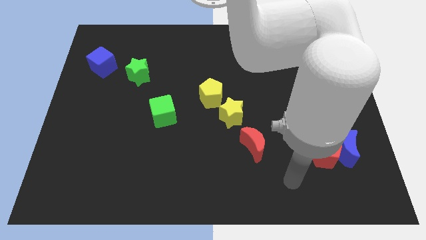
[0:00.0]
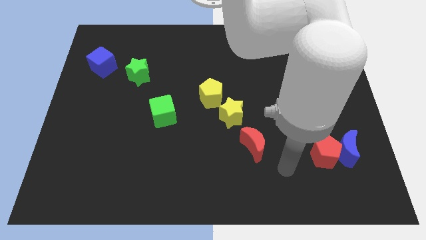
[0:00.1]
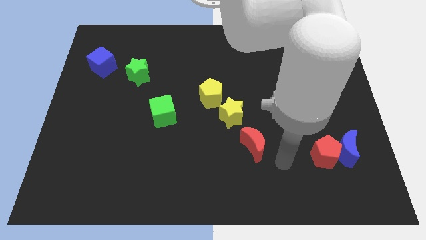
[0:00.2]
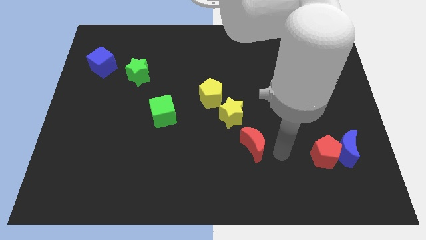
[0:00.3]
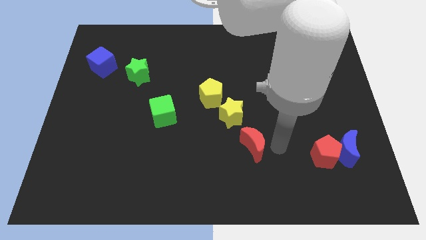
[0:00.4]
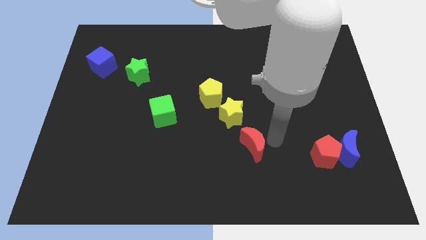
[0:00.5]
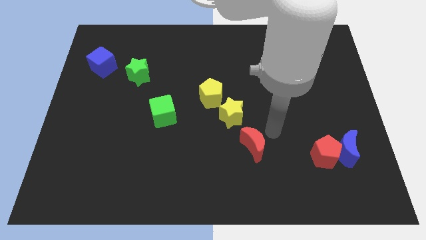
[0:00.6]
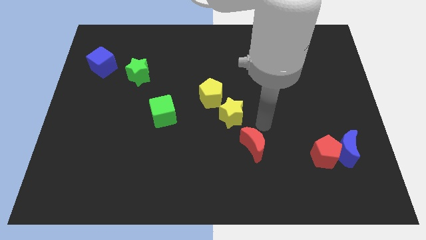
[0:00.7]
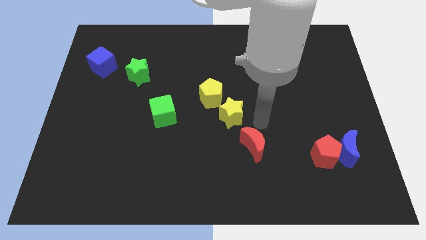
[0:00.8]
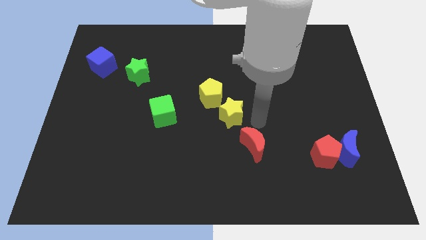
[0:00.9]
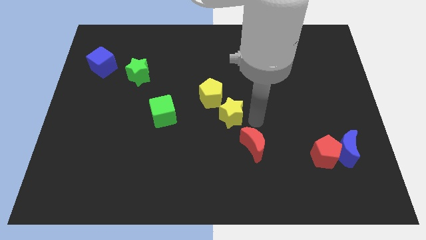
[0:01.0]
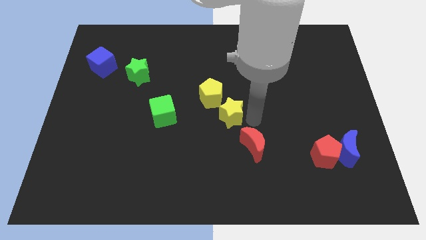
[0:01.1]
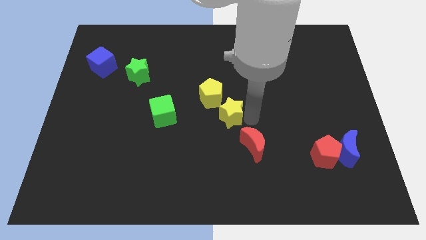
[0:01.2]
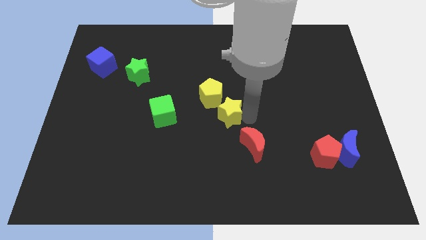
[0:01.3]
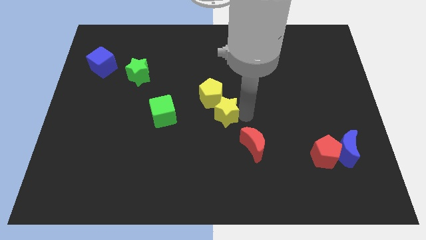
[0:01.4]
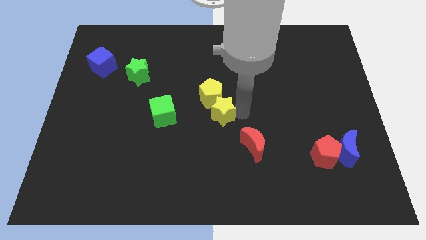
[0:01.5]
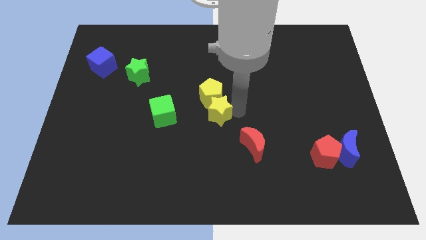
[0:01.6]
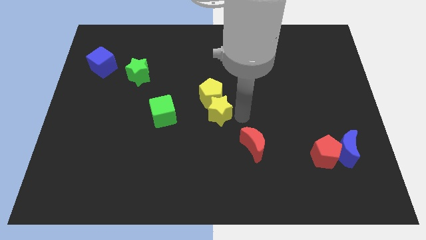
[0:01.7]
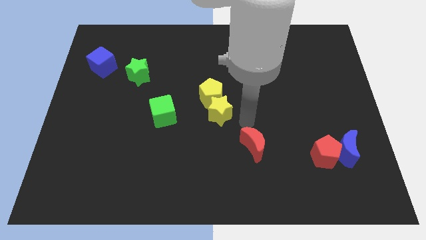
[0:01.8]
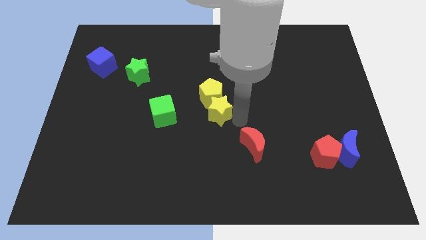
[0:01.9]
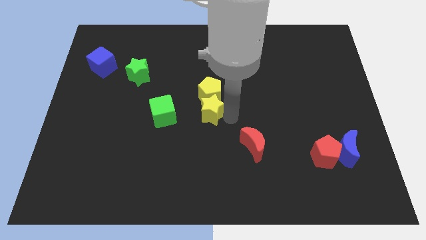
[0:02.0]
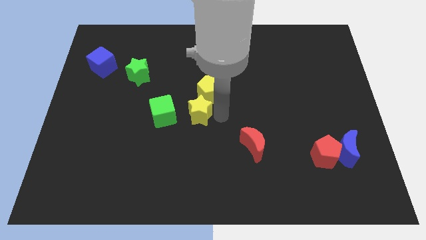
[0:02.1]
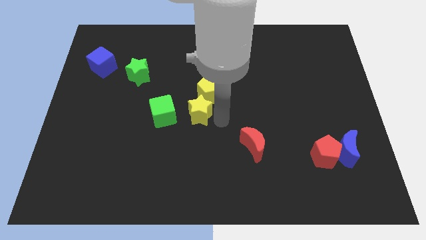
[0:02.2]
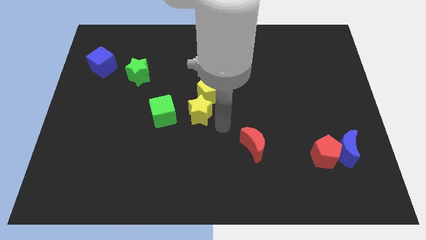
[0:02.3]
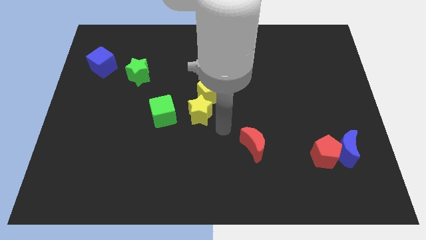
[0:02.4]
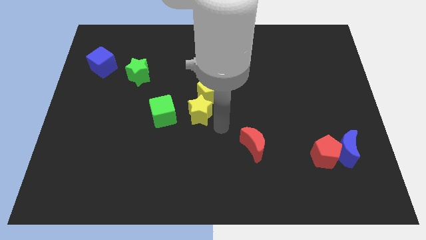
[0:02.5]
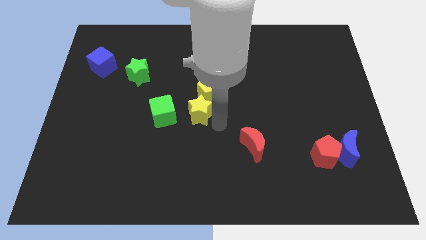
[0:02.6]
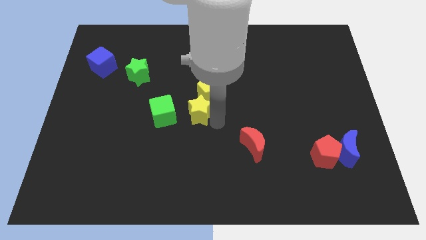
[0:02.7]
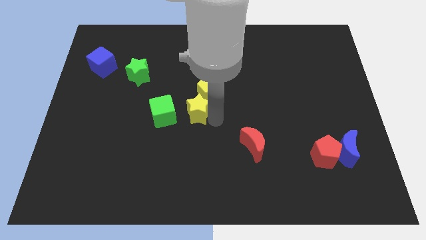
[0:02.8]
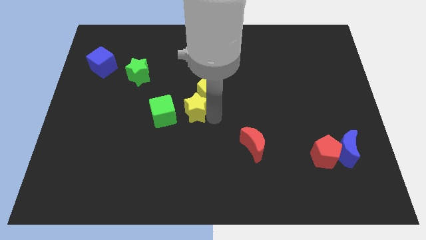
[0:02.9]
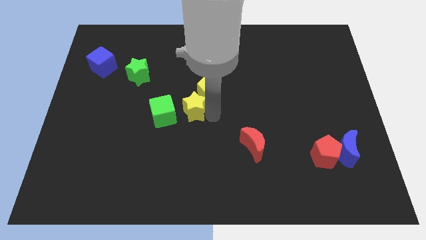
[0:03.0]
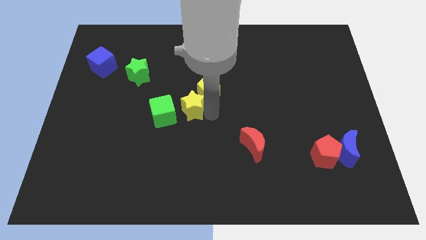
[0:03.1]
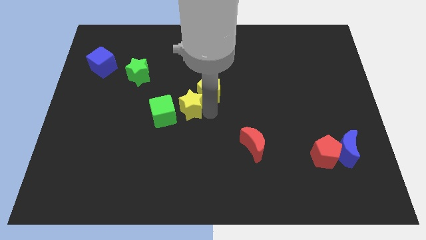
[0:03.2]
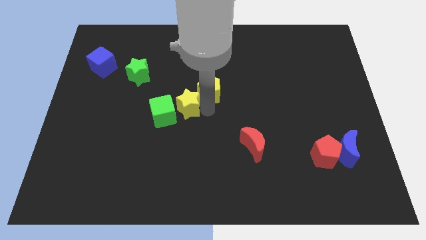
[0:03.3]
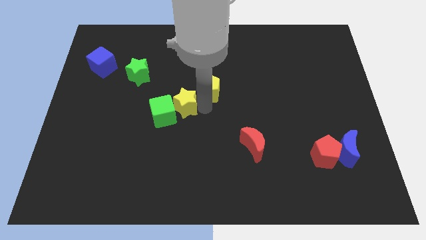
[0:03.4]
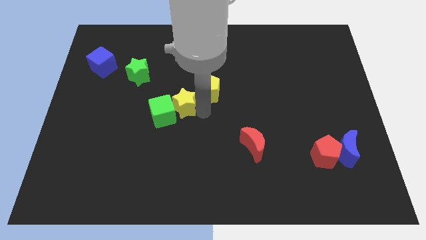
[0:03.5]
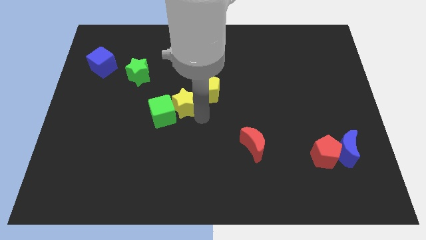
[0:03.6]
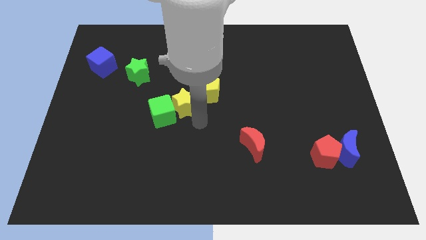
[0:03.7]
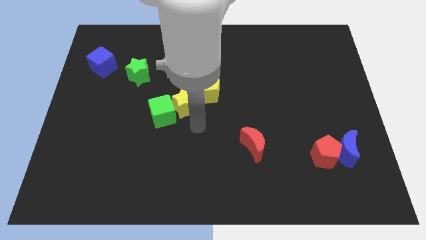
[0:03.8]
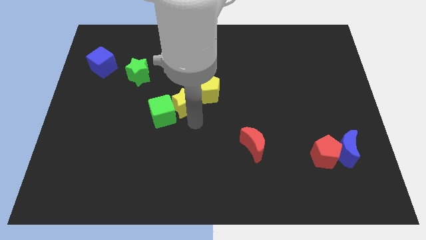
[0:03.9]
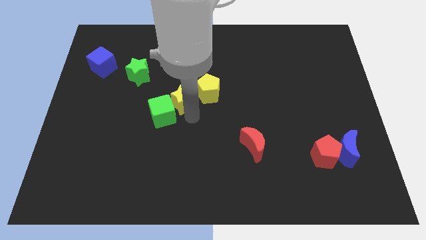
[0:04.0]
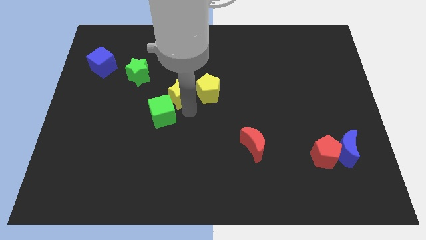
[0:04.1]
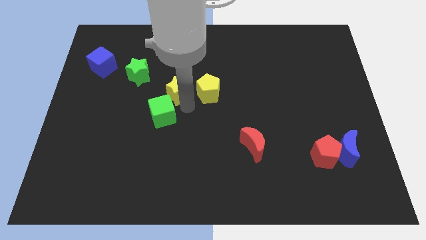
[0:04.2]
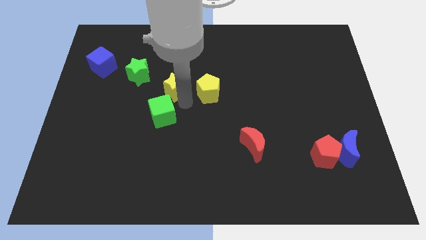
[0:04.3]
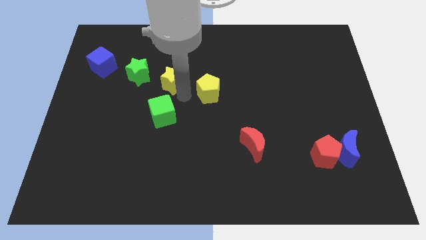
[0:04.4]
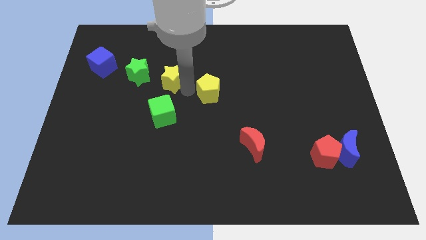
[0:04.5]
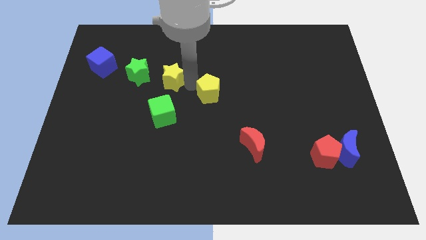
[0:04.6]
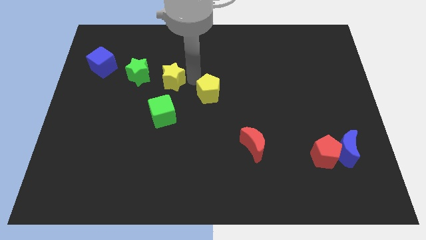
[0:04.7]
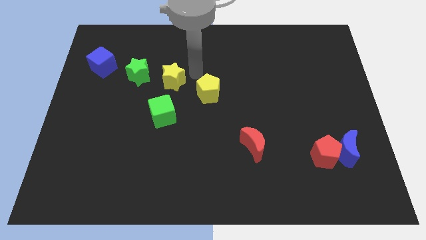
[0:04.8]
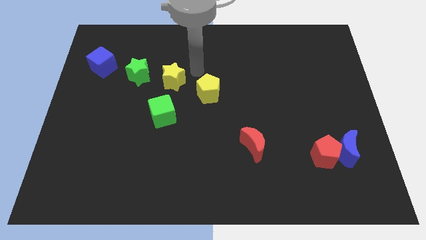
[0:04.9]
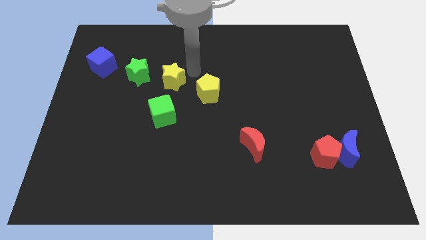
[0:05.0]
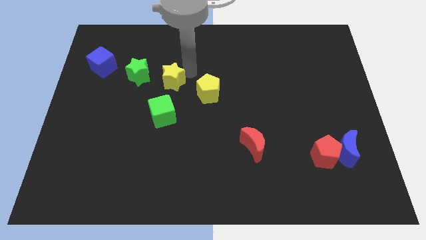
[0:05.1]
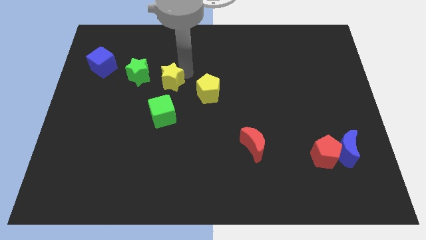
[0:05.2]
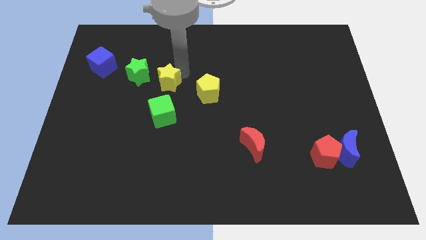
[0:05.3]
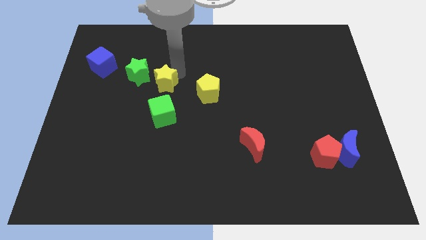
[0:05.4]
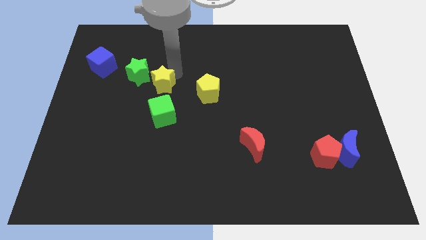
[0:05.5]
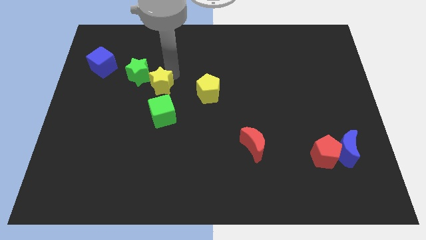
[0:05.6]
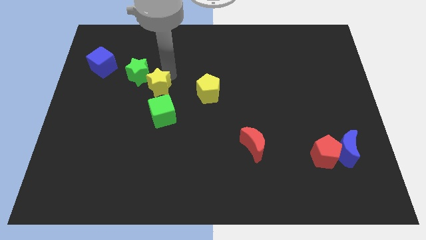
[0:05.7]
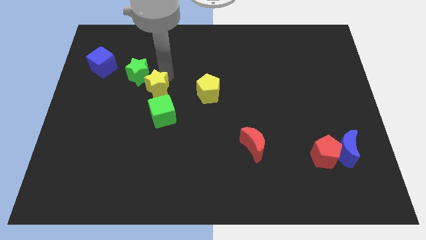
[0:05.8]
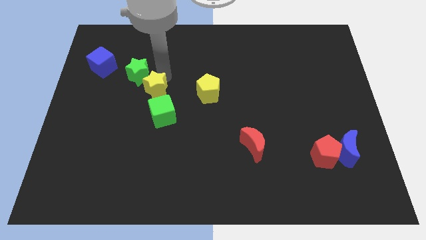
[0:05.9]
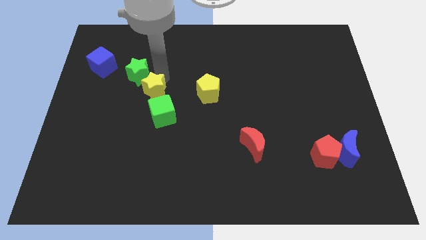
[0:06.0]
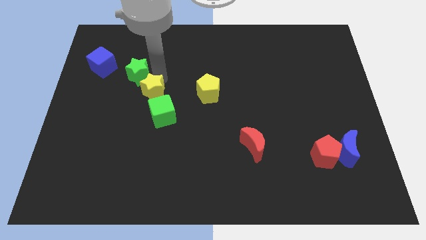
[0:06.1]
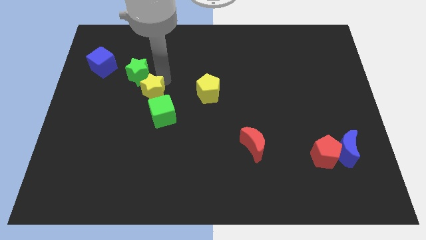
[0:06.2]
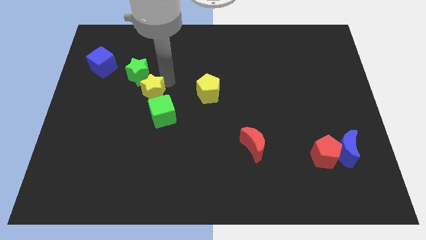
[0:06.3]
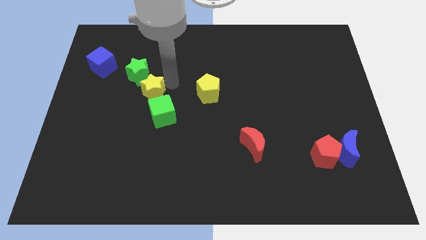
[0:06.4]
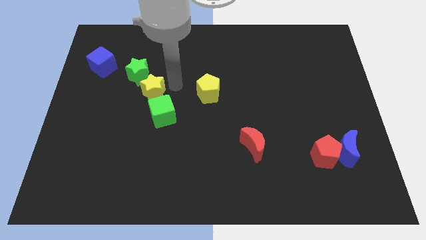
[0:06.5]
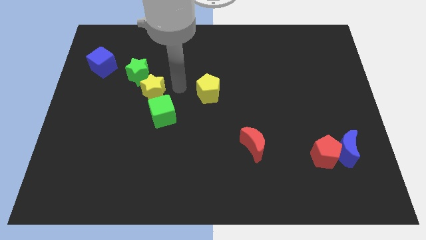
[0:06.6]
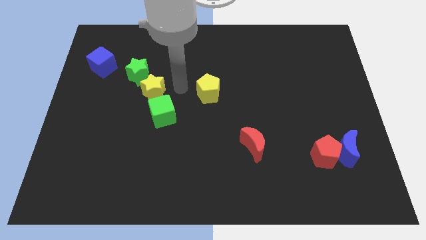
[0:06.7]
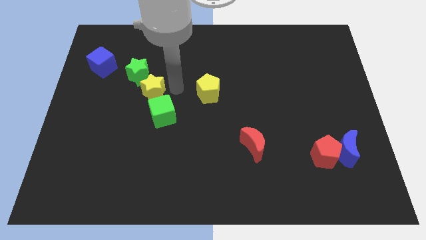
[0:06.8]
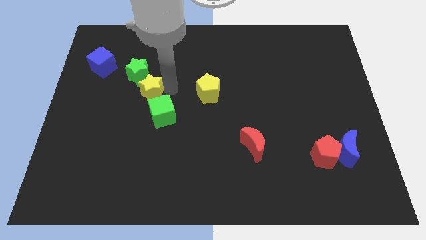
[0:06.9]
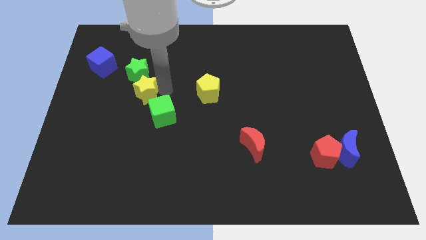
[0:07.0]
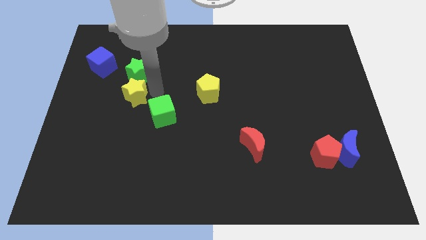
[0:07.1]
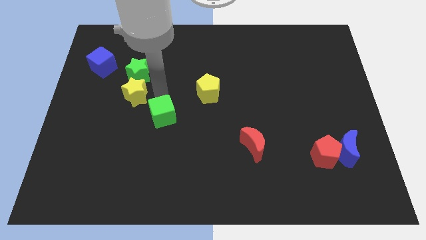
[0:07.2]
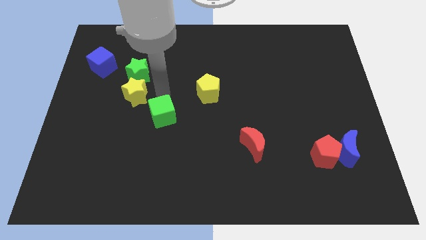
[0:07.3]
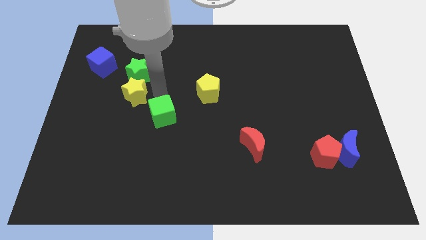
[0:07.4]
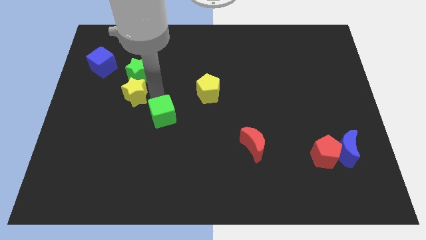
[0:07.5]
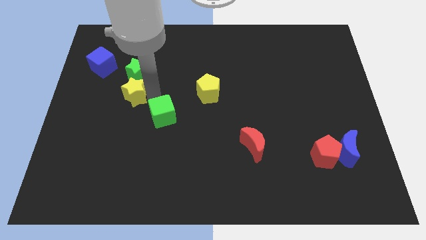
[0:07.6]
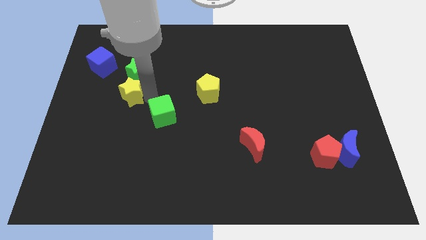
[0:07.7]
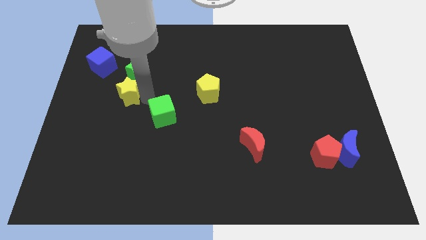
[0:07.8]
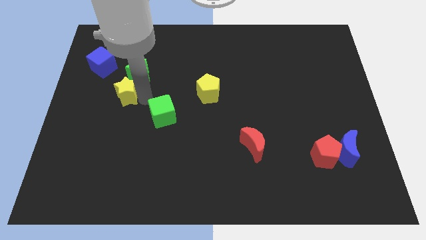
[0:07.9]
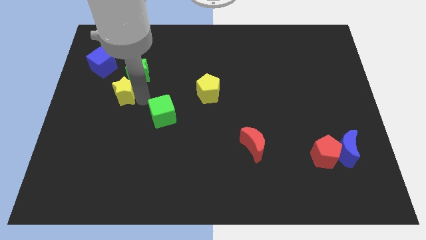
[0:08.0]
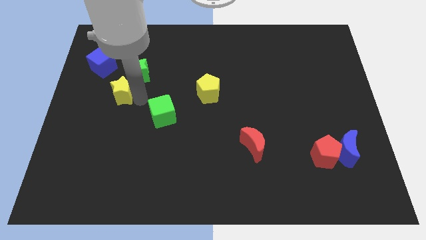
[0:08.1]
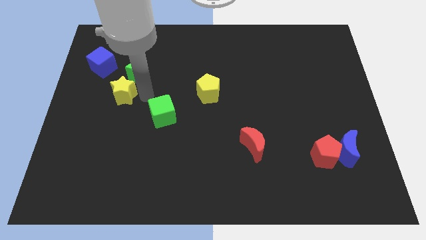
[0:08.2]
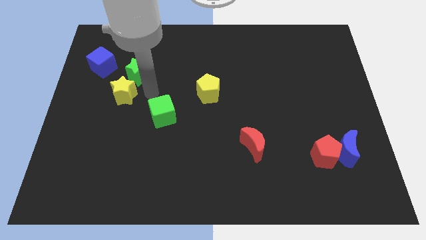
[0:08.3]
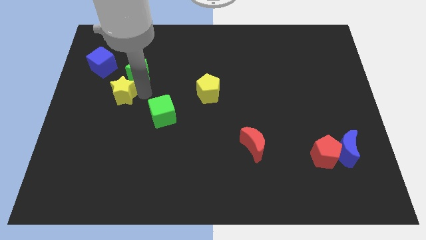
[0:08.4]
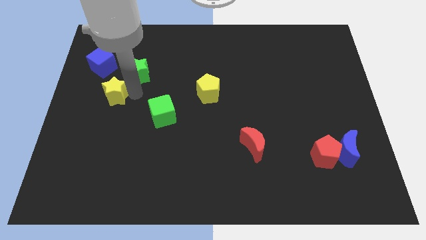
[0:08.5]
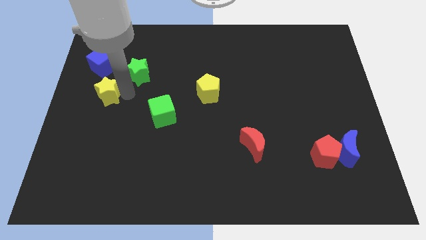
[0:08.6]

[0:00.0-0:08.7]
push the yellow star to the center left
